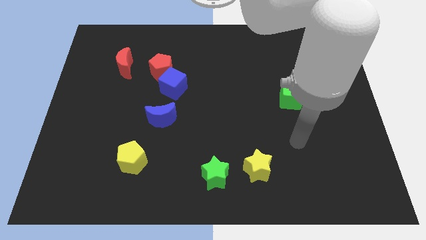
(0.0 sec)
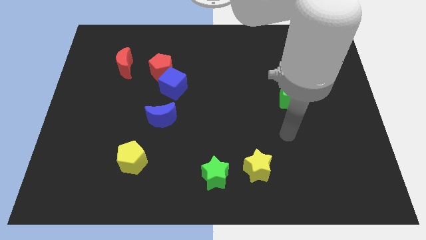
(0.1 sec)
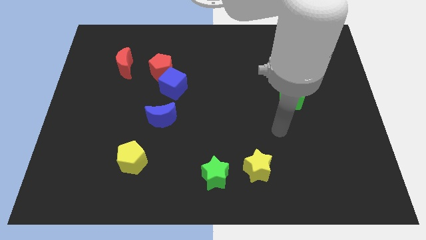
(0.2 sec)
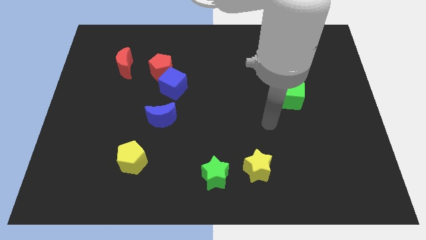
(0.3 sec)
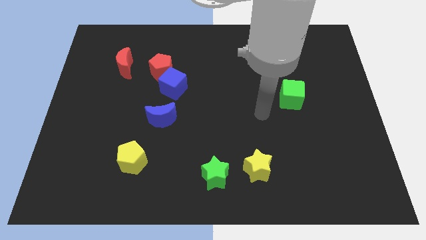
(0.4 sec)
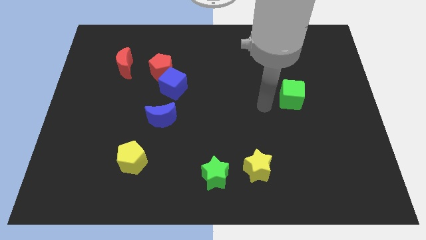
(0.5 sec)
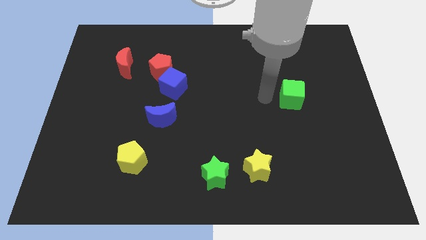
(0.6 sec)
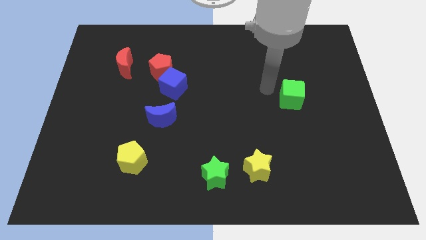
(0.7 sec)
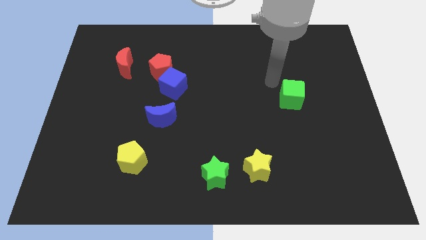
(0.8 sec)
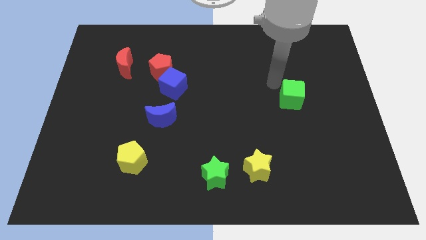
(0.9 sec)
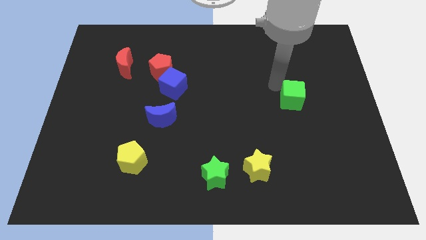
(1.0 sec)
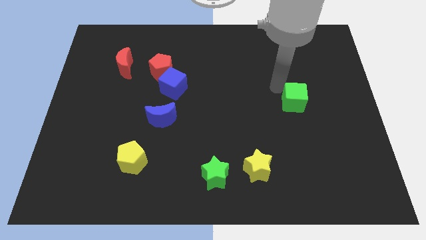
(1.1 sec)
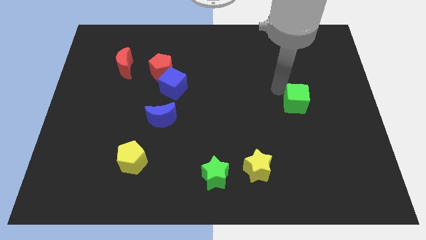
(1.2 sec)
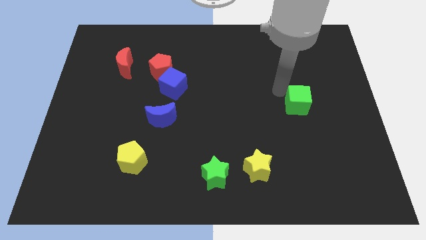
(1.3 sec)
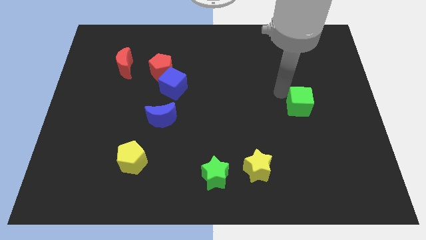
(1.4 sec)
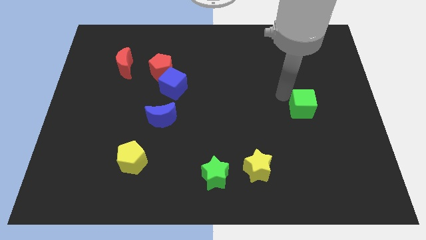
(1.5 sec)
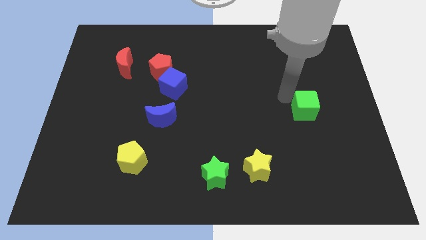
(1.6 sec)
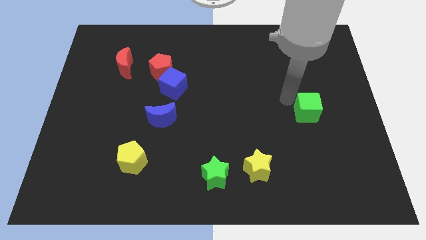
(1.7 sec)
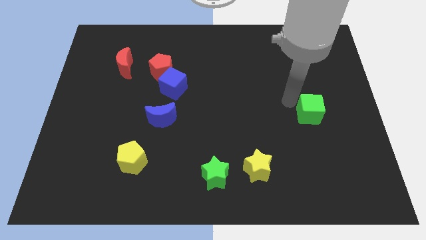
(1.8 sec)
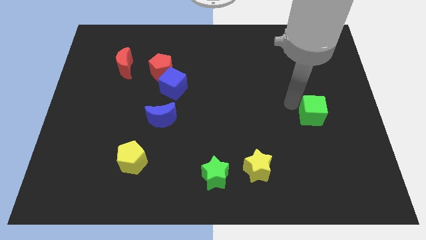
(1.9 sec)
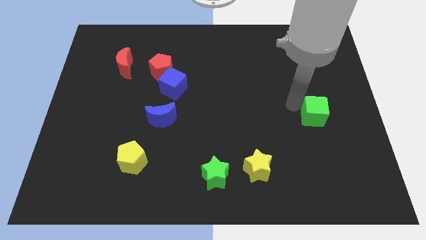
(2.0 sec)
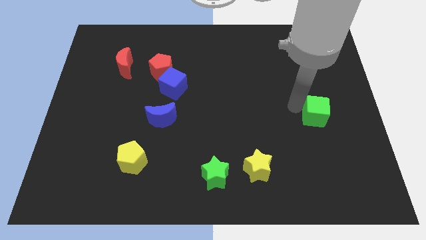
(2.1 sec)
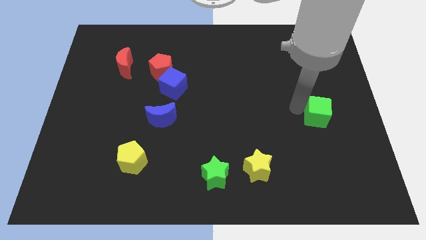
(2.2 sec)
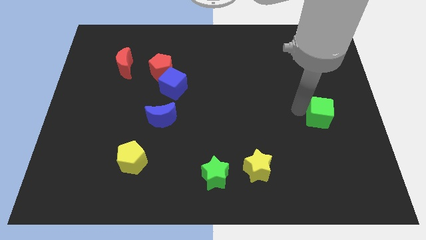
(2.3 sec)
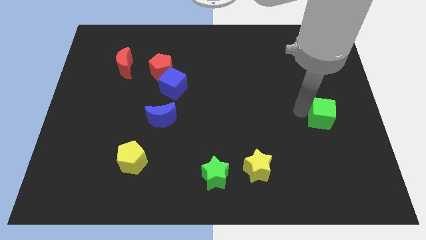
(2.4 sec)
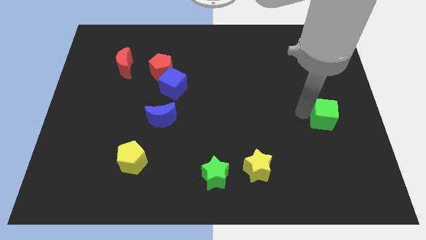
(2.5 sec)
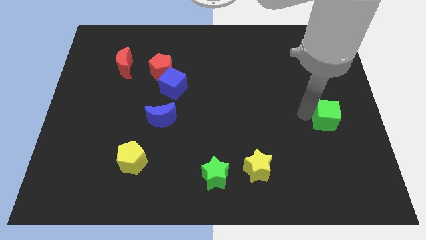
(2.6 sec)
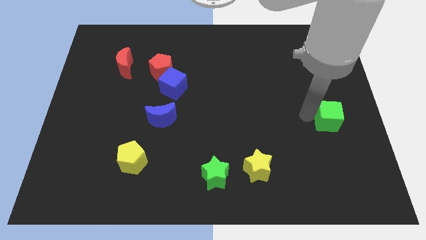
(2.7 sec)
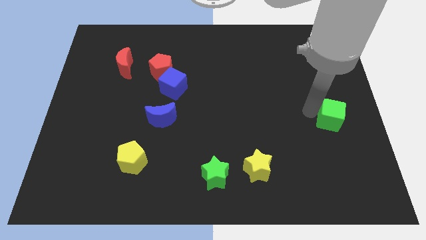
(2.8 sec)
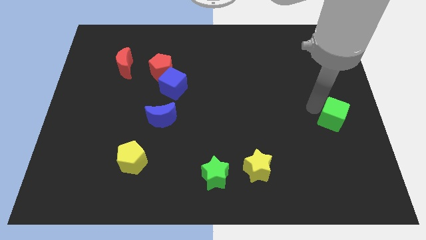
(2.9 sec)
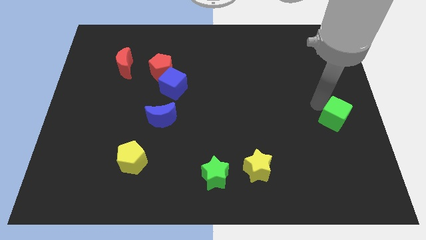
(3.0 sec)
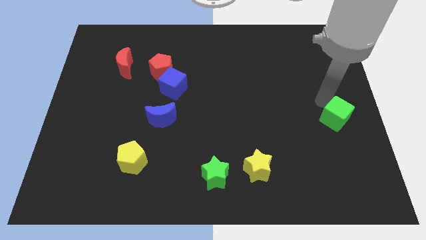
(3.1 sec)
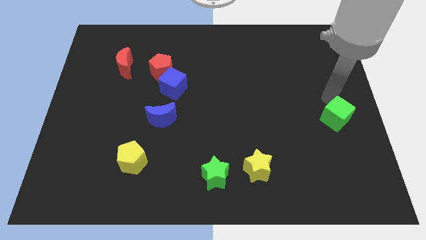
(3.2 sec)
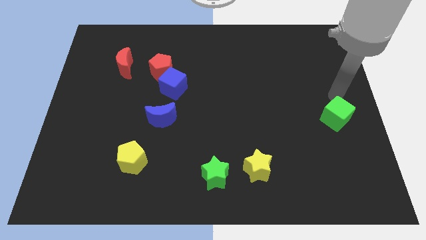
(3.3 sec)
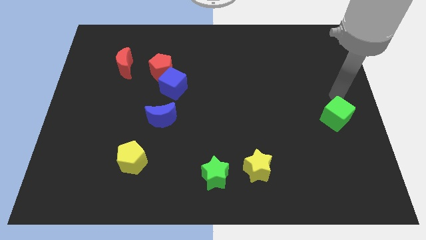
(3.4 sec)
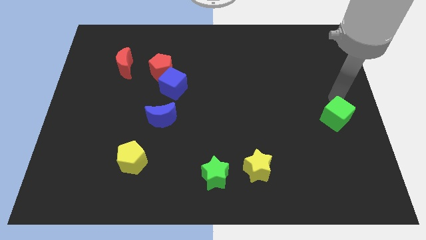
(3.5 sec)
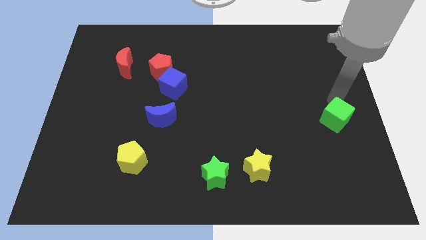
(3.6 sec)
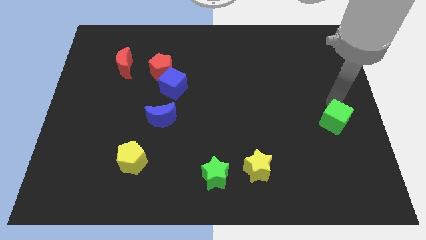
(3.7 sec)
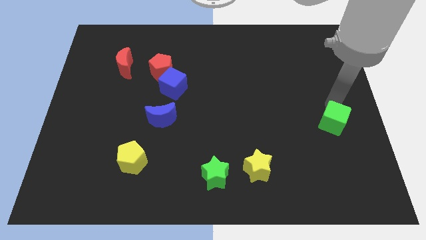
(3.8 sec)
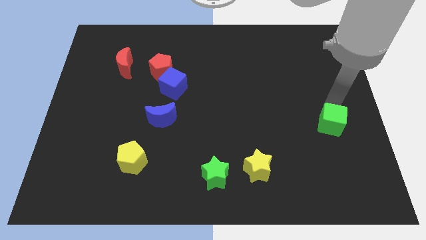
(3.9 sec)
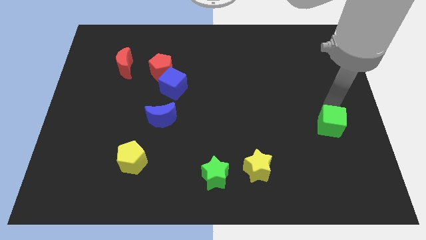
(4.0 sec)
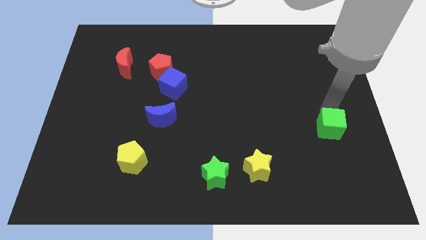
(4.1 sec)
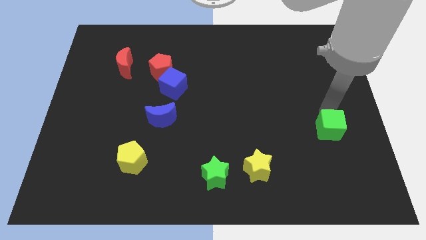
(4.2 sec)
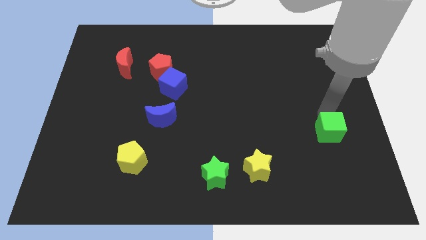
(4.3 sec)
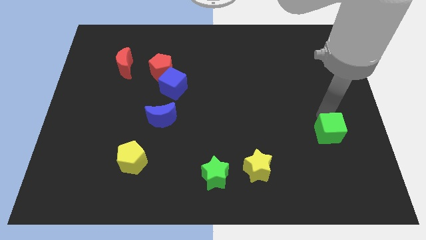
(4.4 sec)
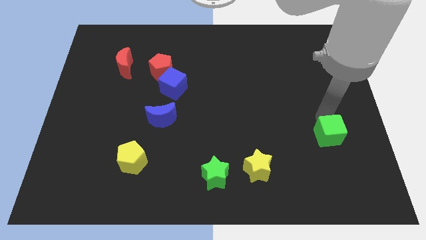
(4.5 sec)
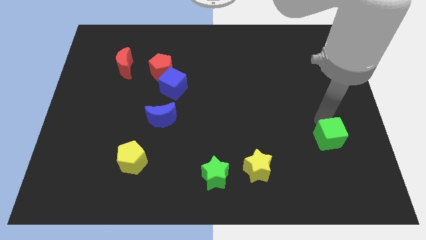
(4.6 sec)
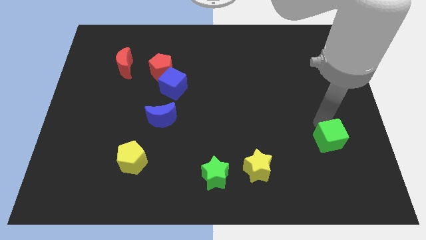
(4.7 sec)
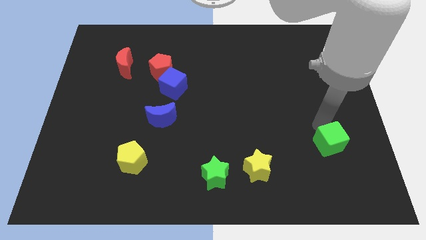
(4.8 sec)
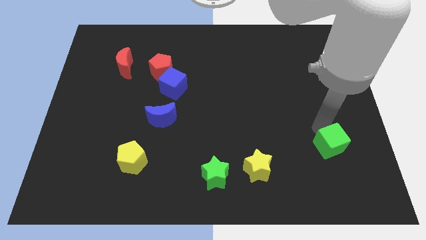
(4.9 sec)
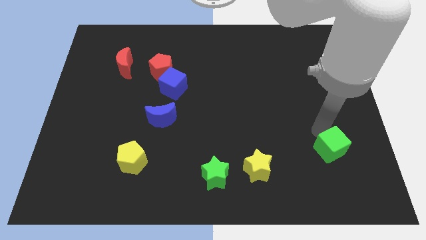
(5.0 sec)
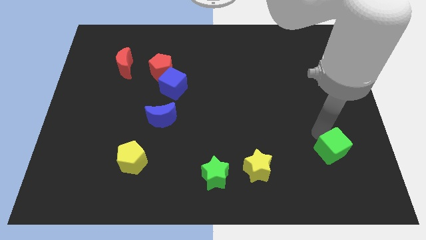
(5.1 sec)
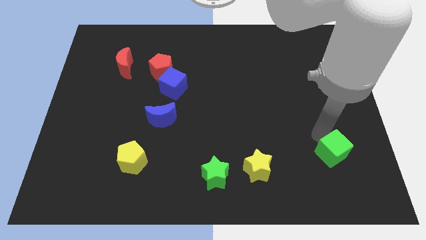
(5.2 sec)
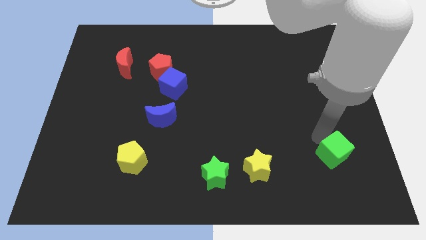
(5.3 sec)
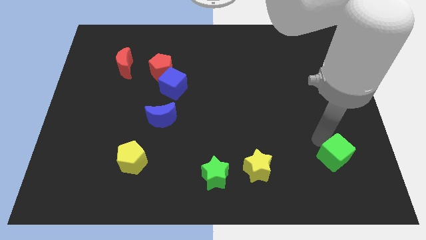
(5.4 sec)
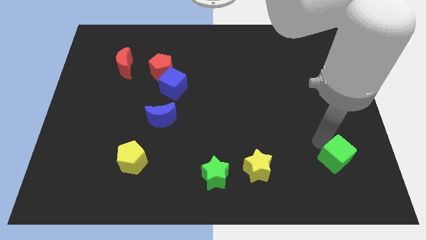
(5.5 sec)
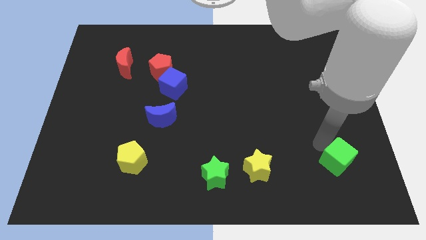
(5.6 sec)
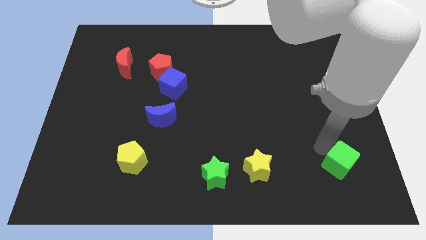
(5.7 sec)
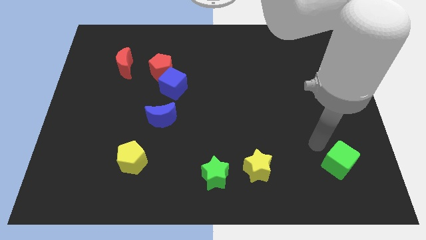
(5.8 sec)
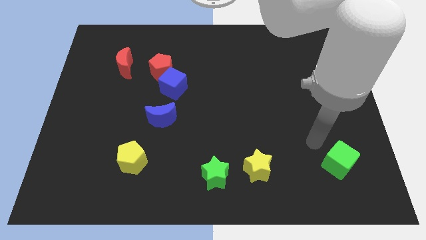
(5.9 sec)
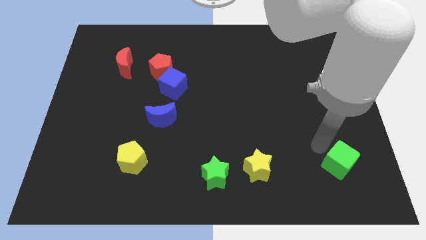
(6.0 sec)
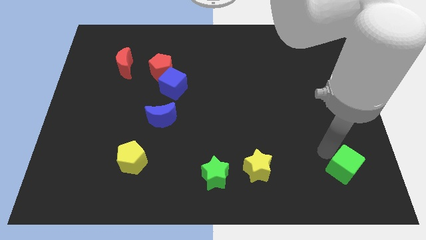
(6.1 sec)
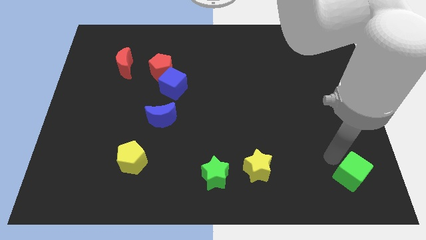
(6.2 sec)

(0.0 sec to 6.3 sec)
slide the green cube to the bottom right corner

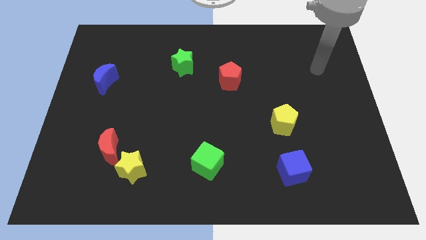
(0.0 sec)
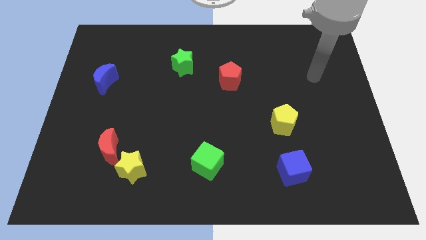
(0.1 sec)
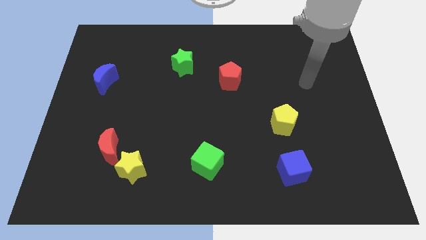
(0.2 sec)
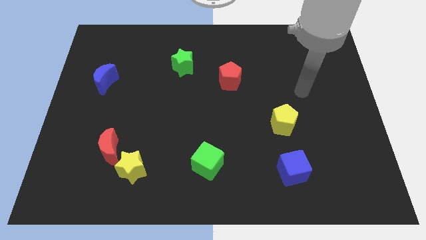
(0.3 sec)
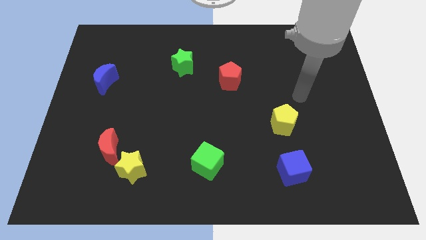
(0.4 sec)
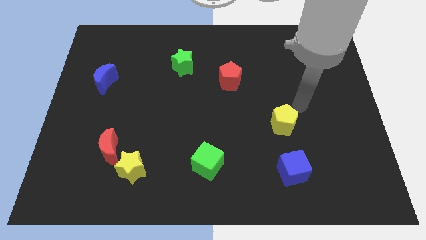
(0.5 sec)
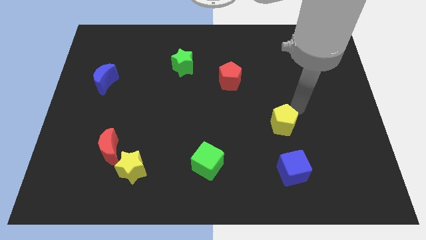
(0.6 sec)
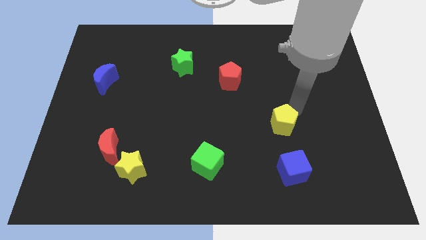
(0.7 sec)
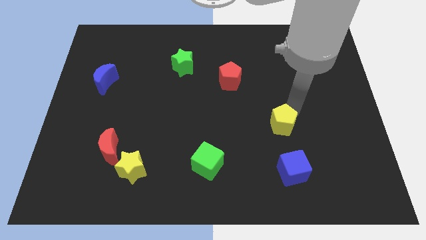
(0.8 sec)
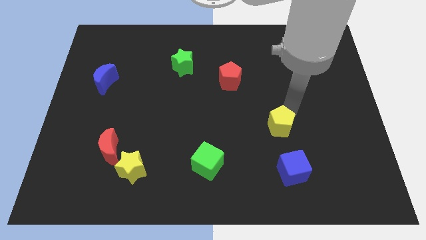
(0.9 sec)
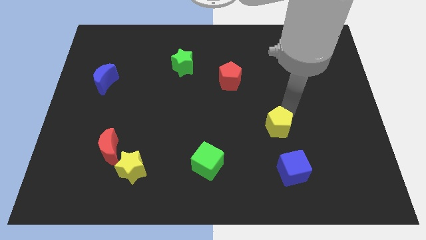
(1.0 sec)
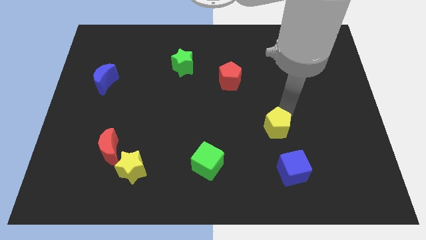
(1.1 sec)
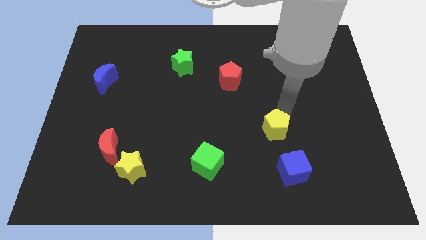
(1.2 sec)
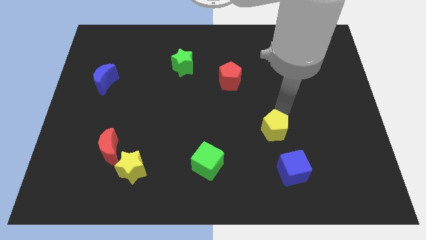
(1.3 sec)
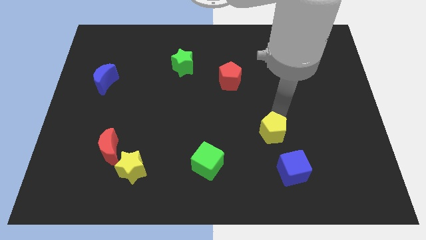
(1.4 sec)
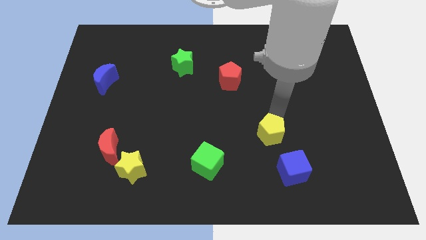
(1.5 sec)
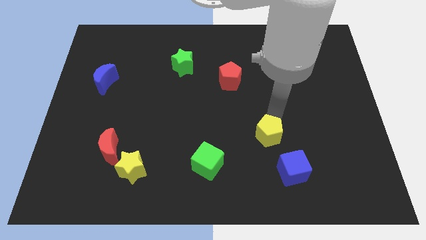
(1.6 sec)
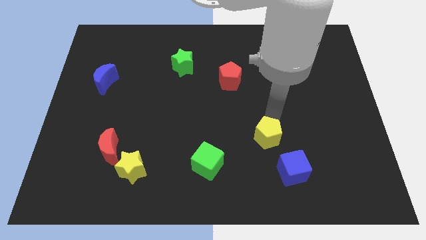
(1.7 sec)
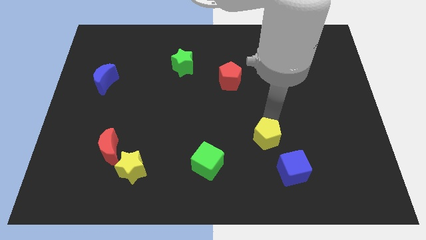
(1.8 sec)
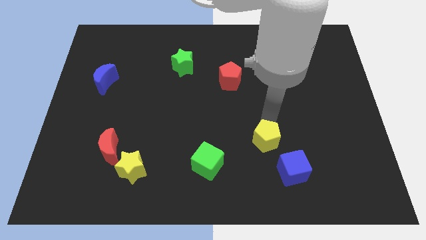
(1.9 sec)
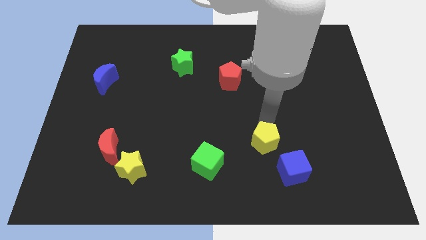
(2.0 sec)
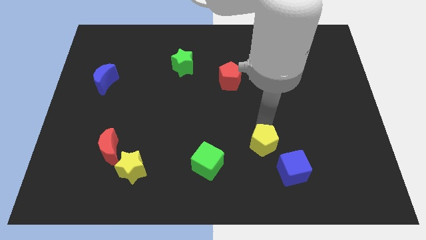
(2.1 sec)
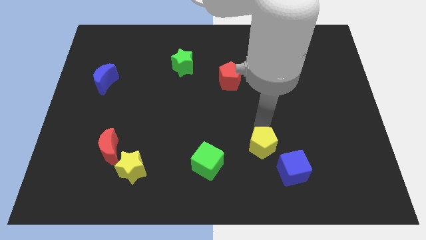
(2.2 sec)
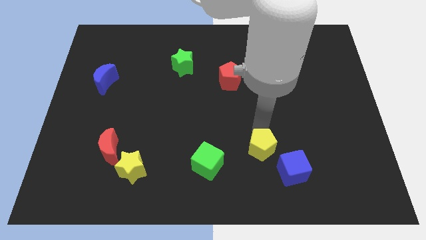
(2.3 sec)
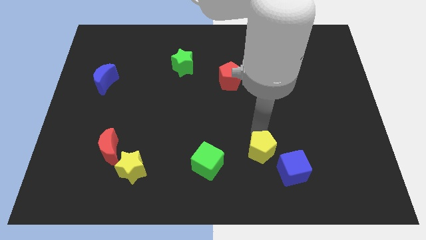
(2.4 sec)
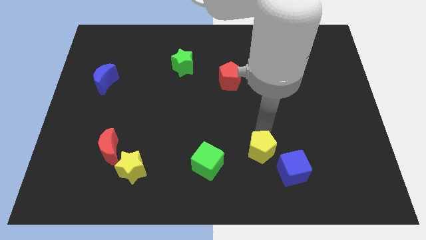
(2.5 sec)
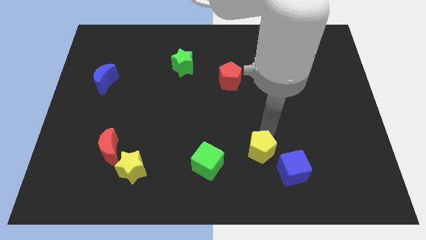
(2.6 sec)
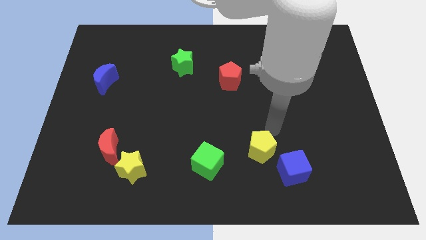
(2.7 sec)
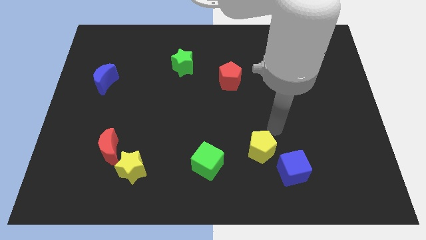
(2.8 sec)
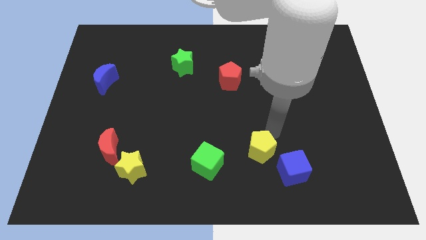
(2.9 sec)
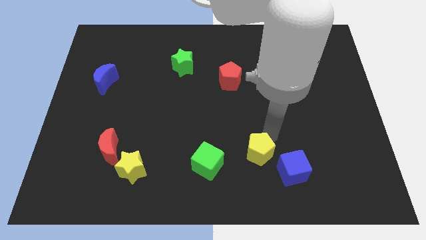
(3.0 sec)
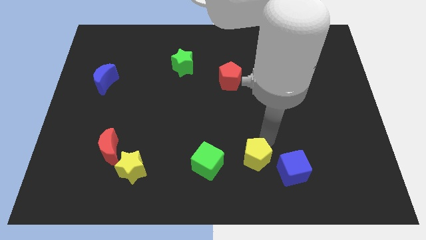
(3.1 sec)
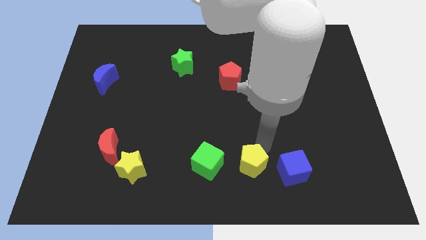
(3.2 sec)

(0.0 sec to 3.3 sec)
push the yellow pentagon to the bottom side
